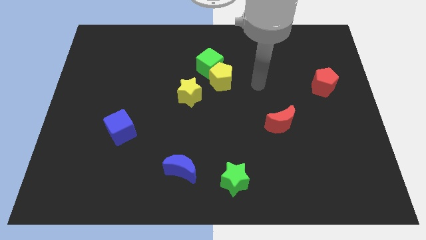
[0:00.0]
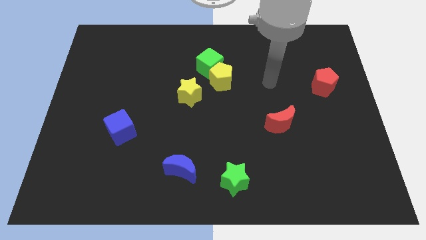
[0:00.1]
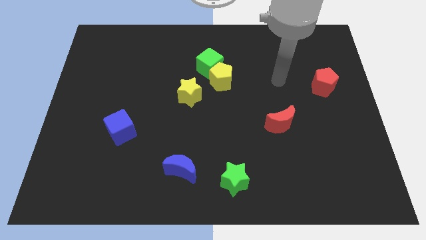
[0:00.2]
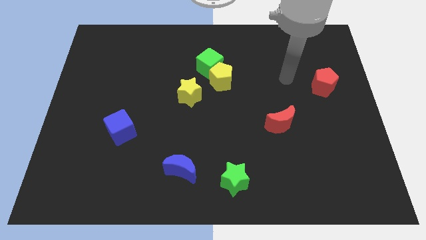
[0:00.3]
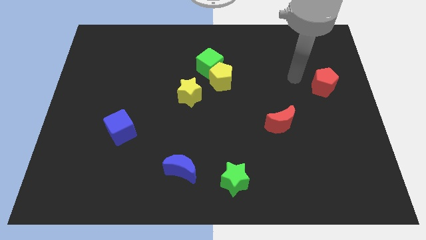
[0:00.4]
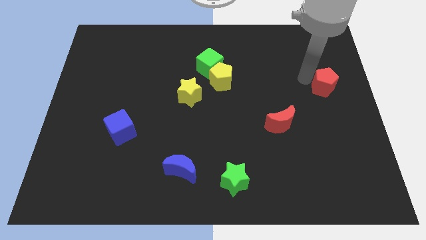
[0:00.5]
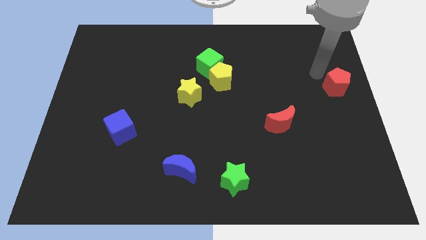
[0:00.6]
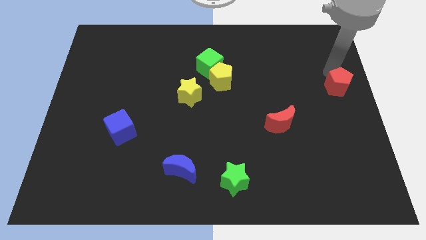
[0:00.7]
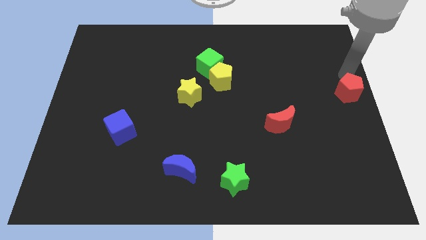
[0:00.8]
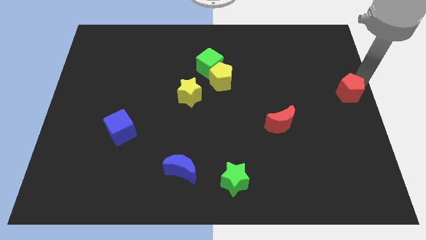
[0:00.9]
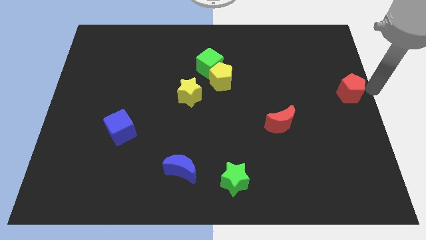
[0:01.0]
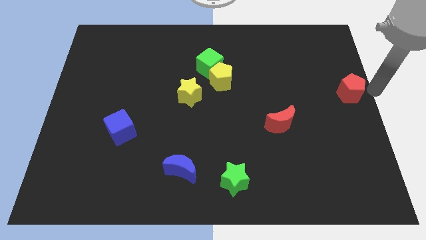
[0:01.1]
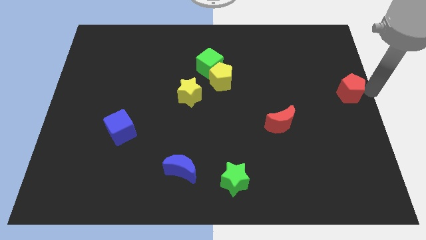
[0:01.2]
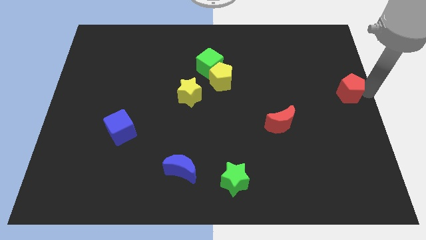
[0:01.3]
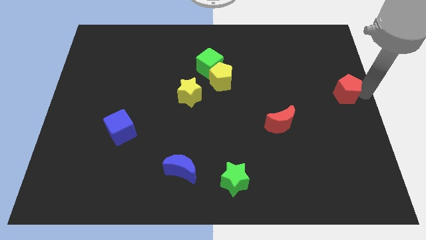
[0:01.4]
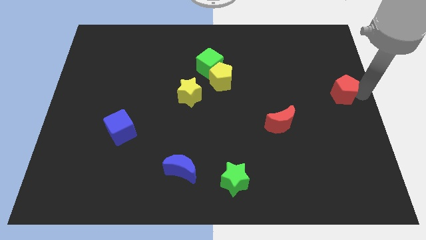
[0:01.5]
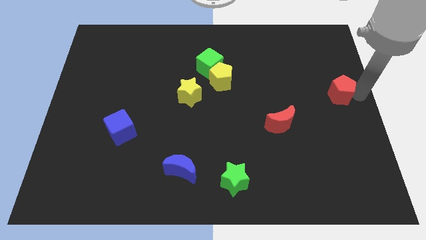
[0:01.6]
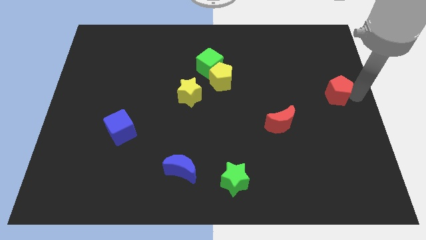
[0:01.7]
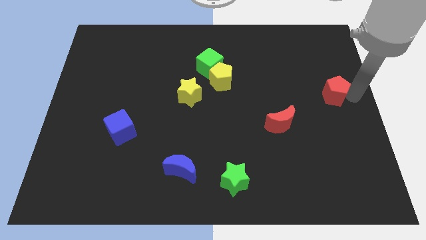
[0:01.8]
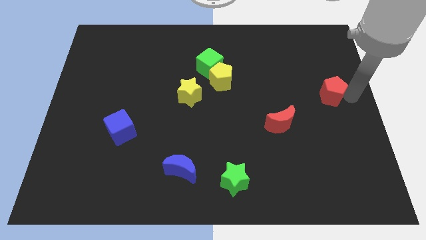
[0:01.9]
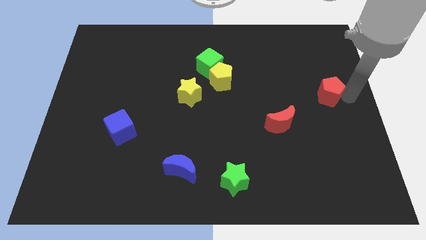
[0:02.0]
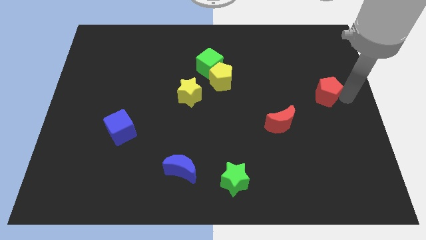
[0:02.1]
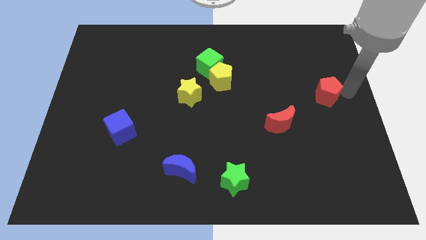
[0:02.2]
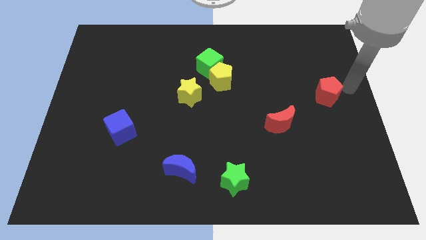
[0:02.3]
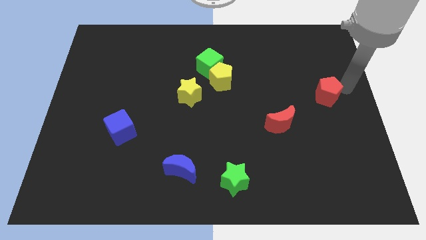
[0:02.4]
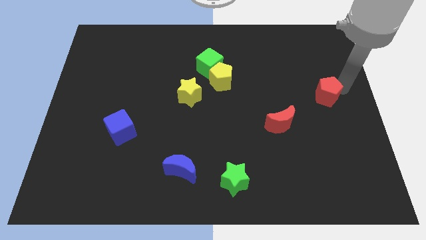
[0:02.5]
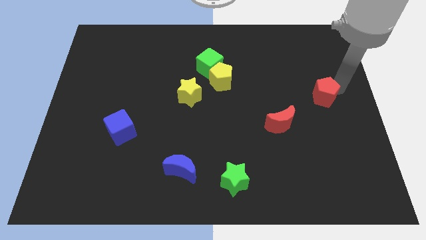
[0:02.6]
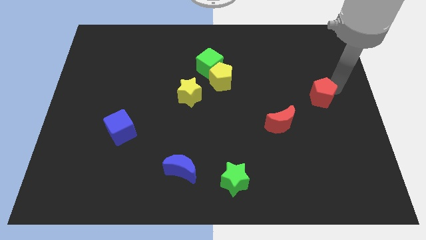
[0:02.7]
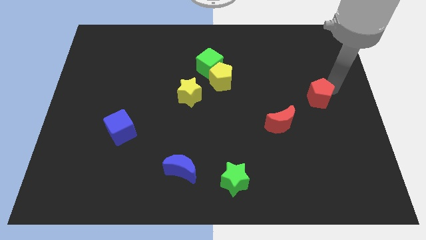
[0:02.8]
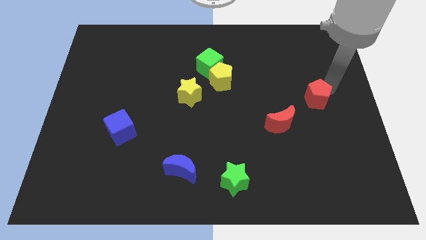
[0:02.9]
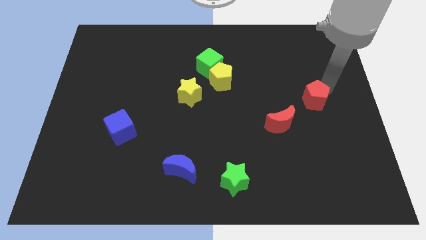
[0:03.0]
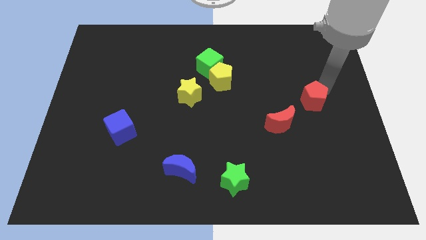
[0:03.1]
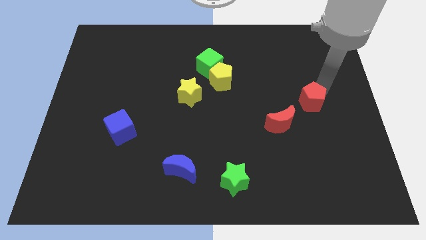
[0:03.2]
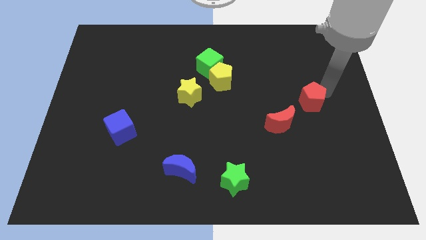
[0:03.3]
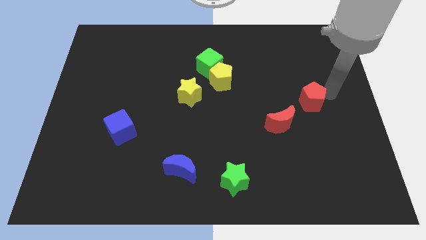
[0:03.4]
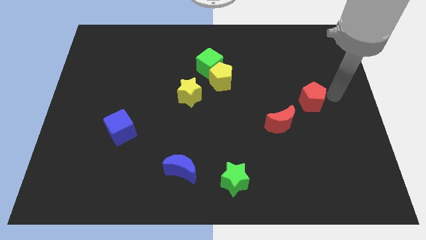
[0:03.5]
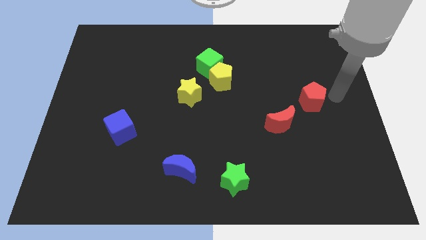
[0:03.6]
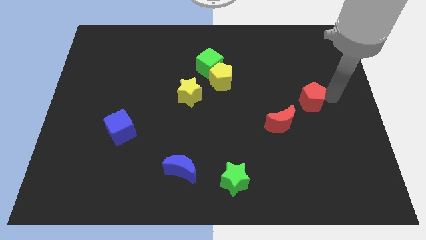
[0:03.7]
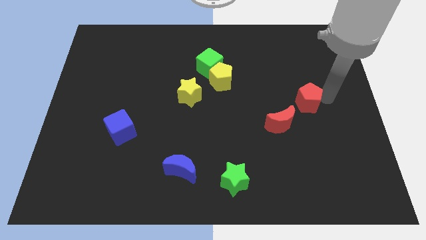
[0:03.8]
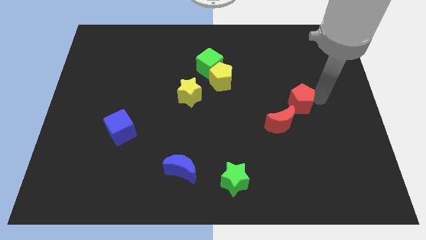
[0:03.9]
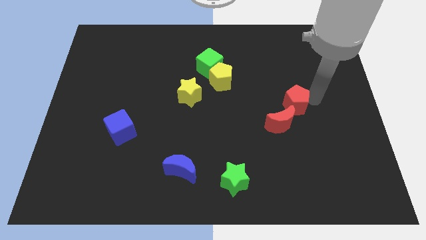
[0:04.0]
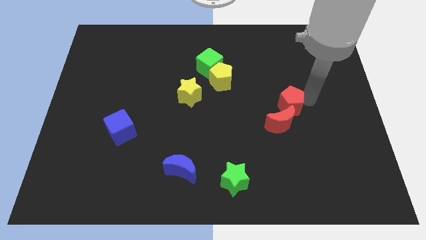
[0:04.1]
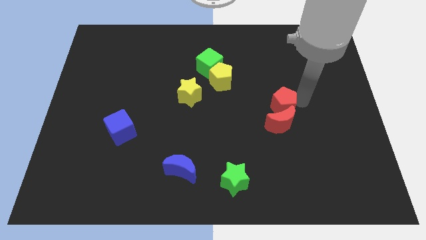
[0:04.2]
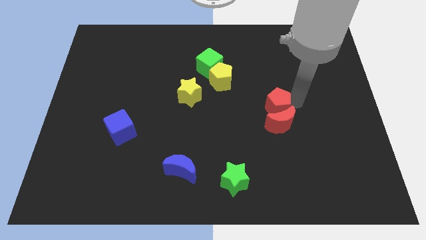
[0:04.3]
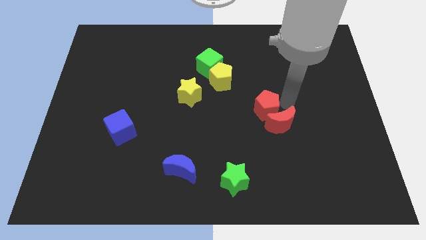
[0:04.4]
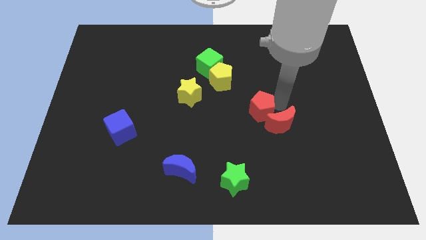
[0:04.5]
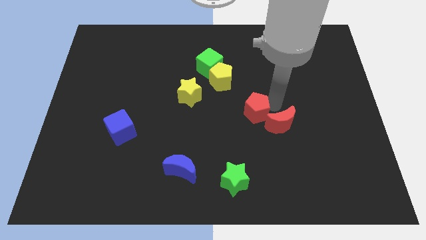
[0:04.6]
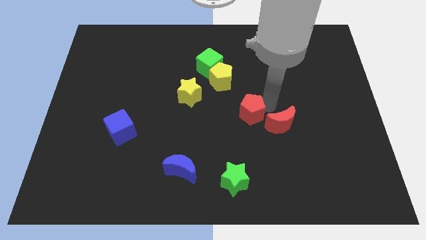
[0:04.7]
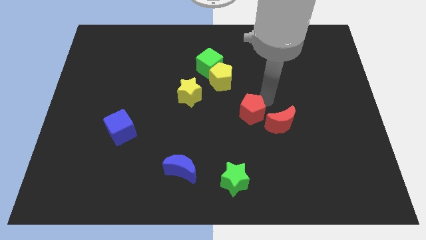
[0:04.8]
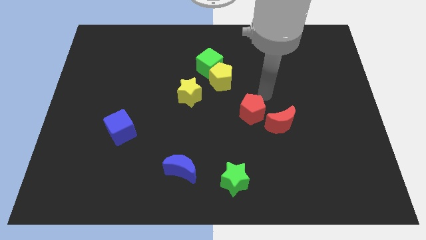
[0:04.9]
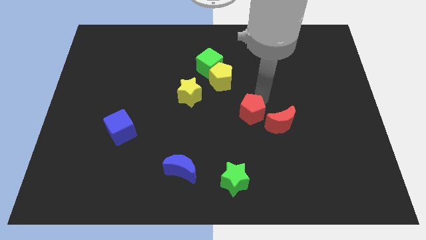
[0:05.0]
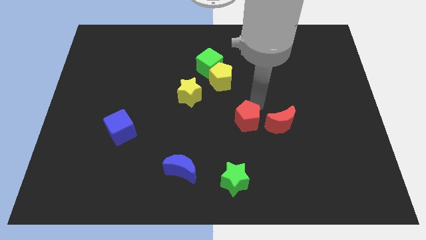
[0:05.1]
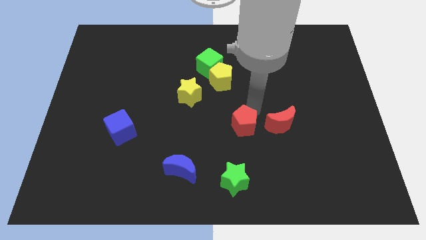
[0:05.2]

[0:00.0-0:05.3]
push the red pentagon to the top of the green star

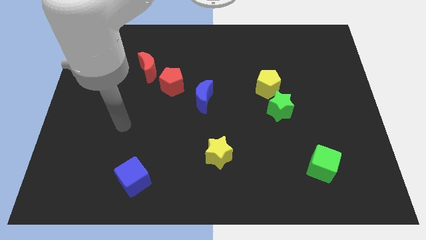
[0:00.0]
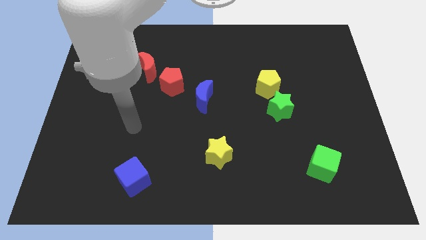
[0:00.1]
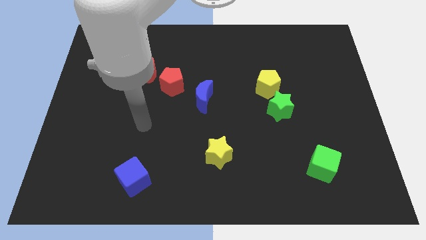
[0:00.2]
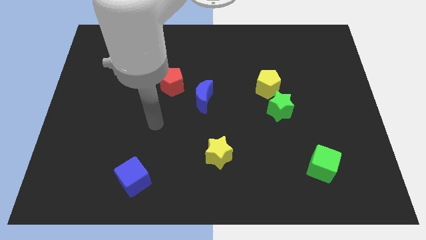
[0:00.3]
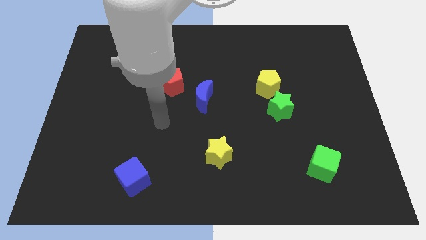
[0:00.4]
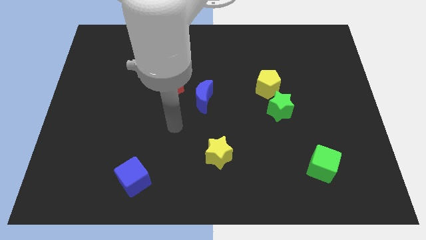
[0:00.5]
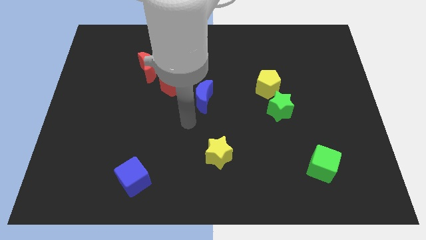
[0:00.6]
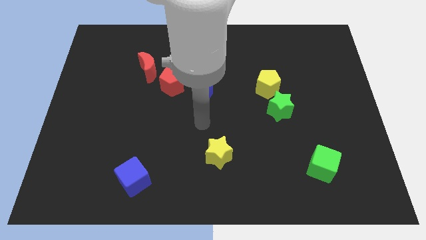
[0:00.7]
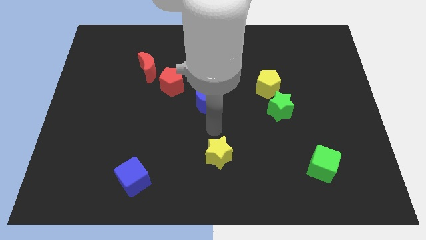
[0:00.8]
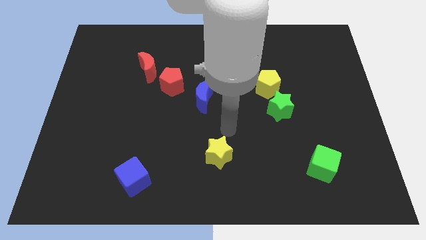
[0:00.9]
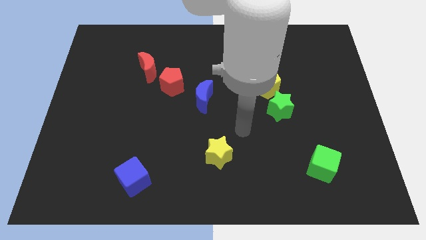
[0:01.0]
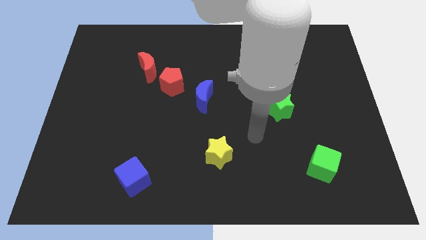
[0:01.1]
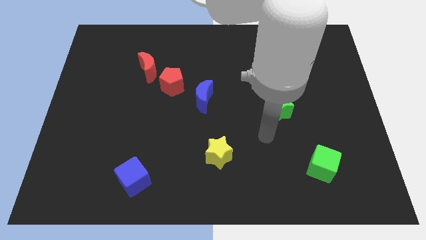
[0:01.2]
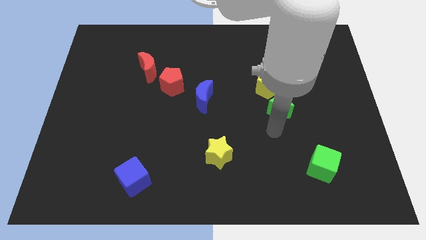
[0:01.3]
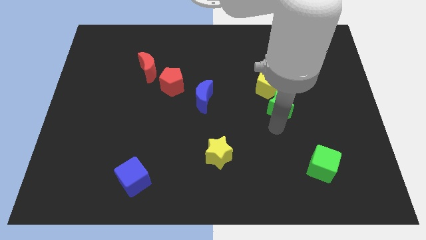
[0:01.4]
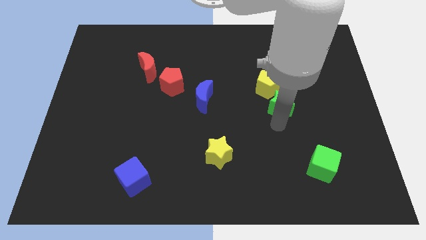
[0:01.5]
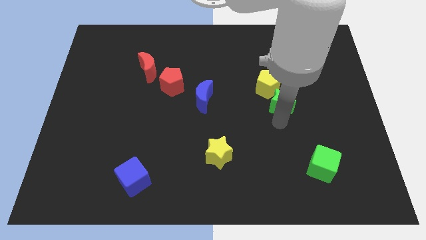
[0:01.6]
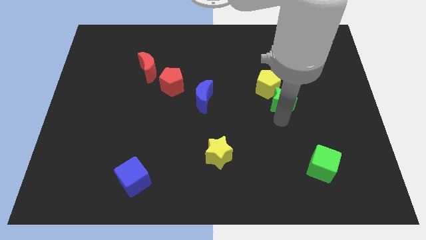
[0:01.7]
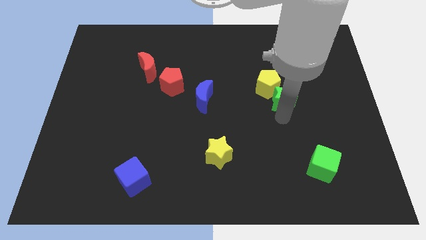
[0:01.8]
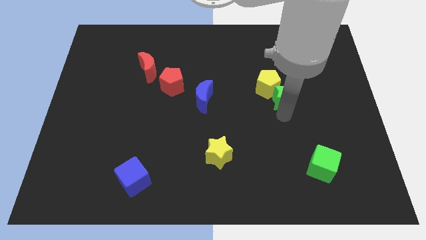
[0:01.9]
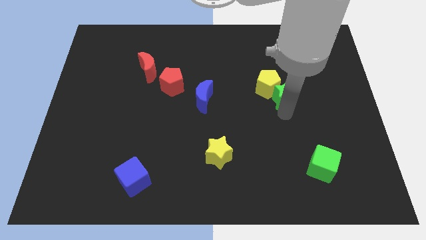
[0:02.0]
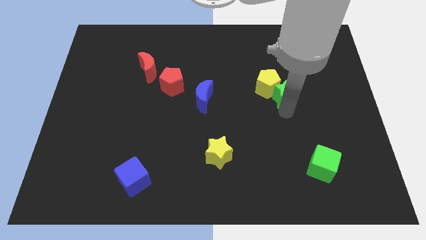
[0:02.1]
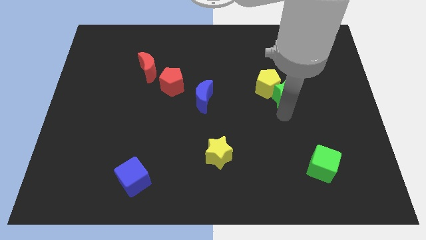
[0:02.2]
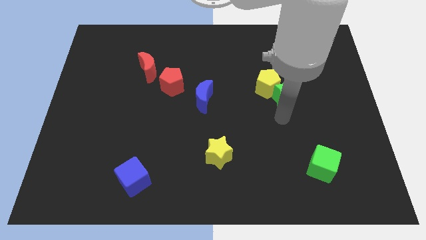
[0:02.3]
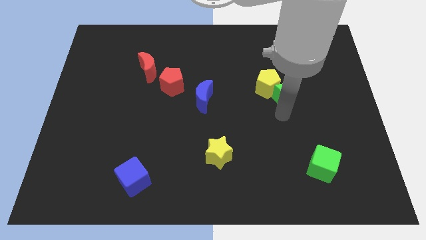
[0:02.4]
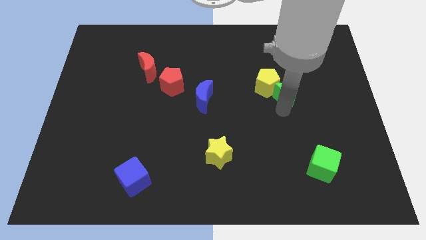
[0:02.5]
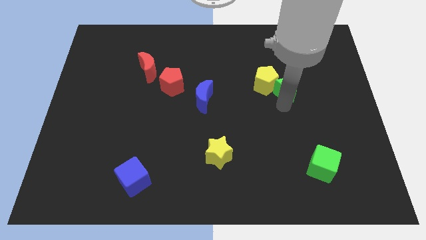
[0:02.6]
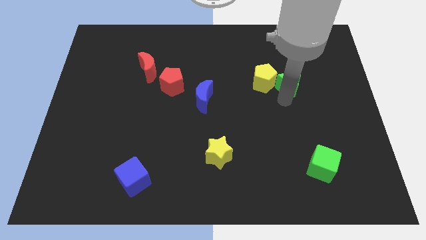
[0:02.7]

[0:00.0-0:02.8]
push the green star to the top right of the yellow pentagon
